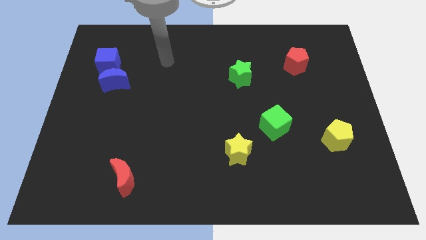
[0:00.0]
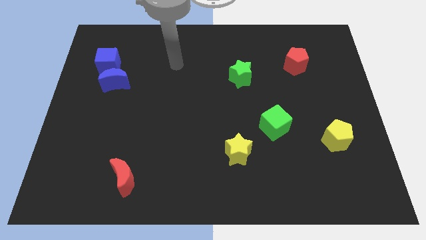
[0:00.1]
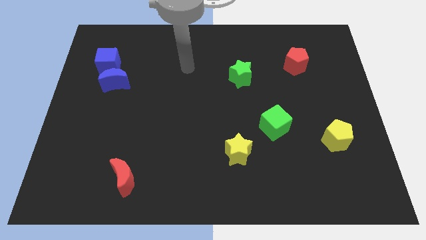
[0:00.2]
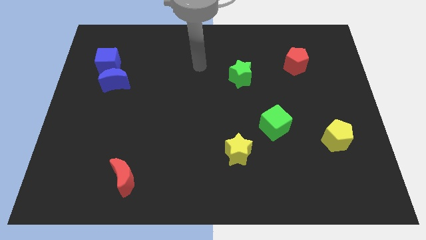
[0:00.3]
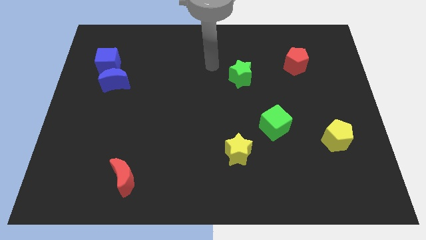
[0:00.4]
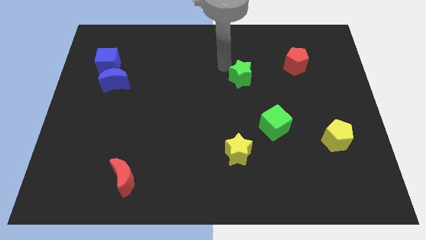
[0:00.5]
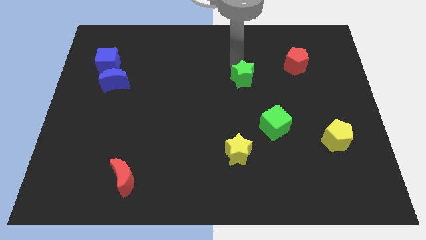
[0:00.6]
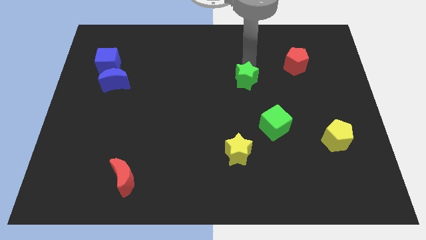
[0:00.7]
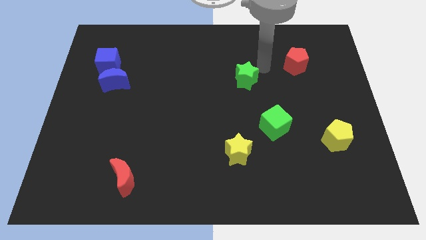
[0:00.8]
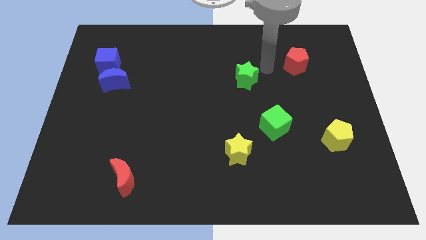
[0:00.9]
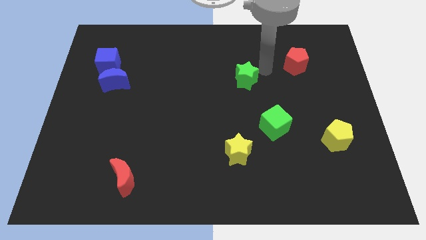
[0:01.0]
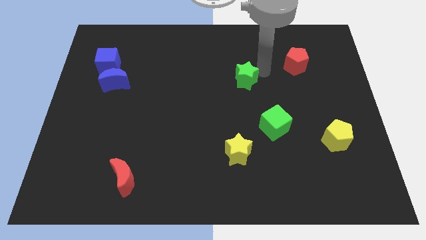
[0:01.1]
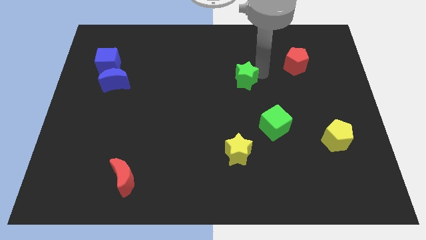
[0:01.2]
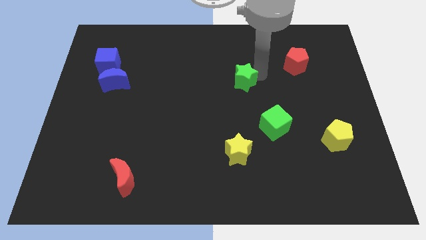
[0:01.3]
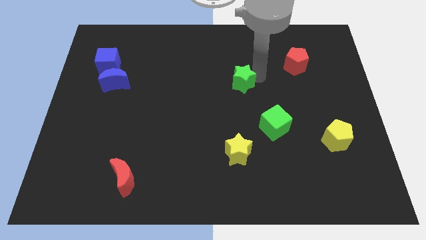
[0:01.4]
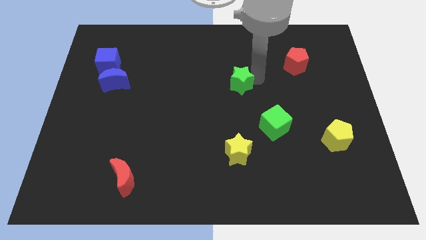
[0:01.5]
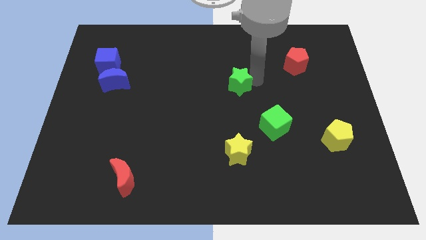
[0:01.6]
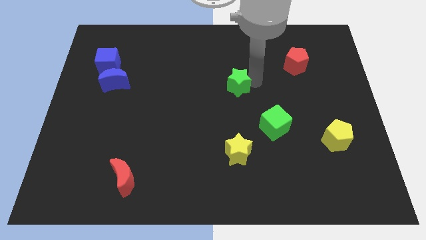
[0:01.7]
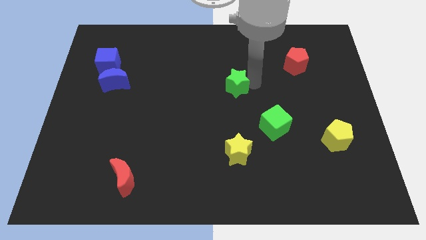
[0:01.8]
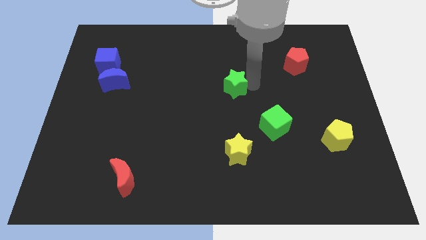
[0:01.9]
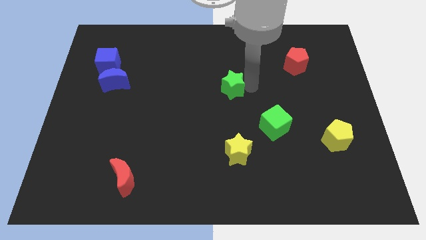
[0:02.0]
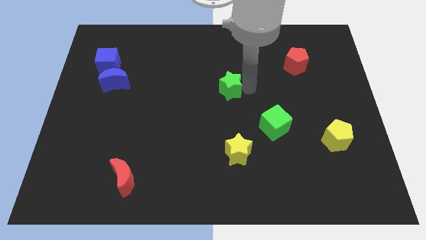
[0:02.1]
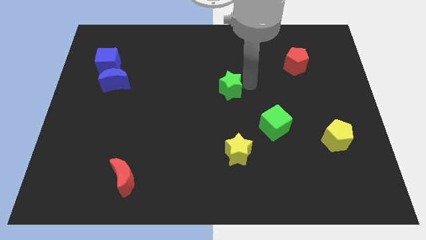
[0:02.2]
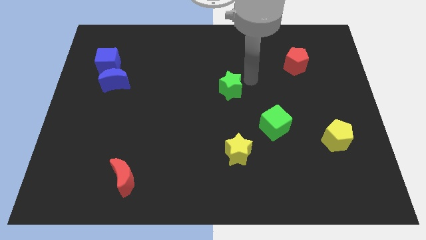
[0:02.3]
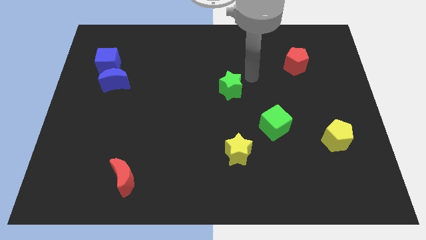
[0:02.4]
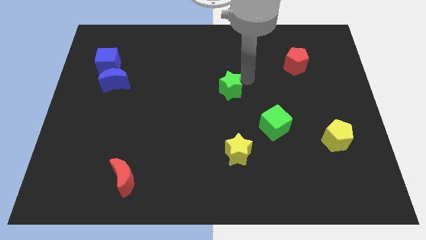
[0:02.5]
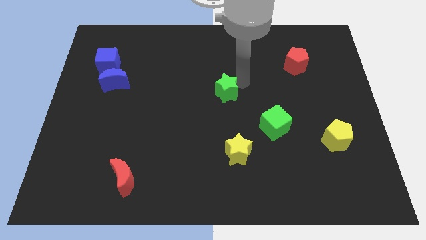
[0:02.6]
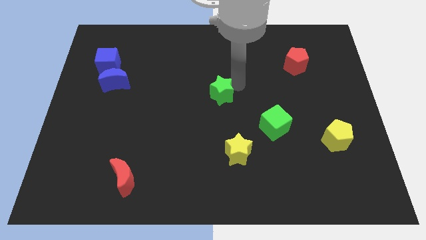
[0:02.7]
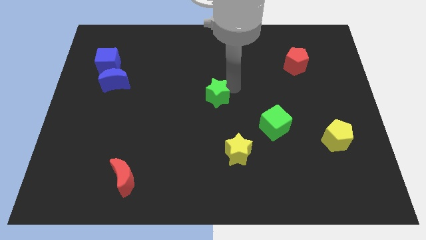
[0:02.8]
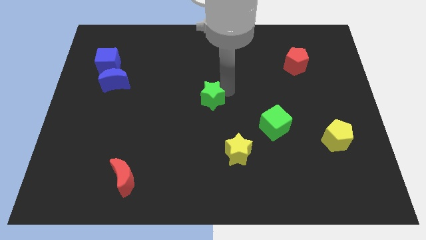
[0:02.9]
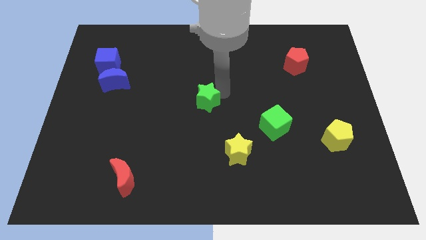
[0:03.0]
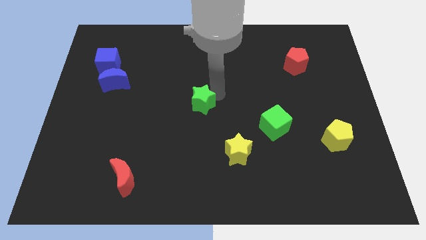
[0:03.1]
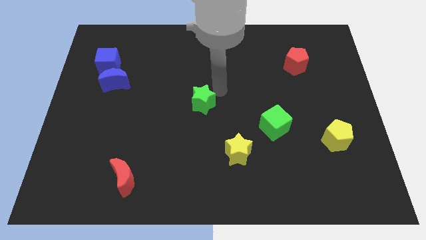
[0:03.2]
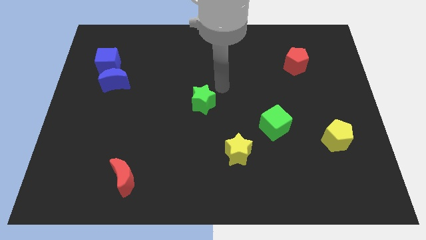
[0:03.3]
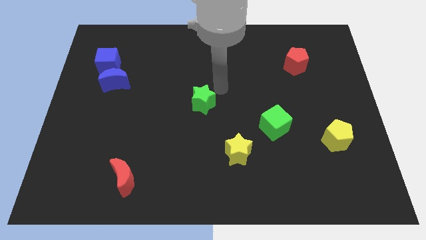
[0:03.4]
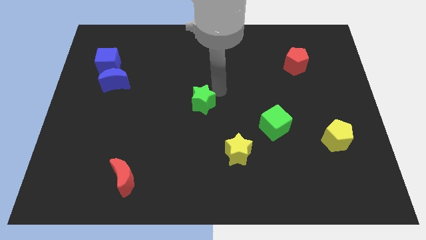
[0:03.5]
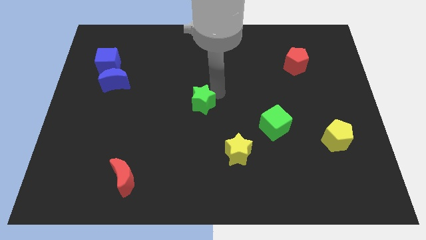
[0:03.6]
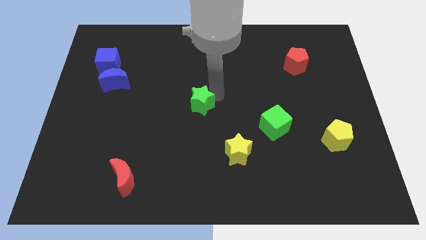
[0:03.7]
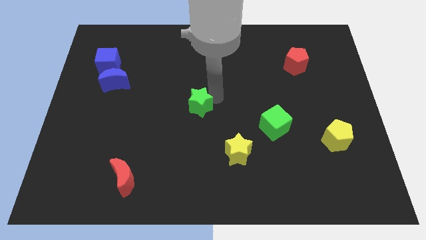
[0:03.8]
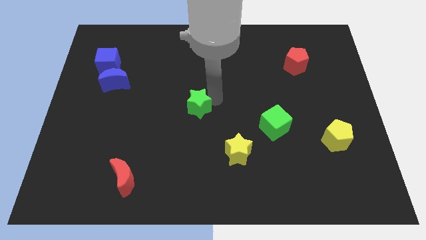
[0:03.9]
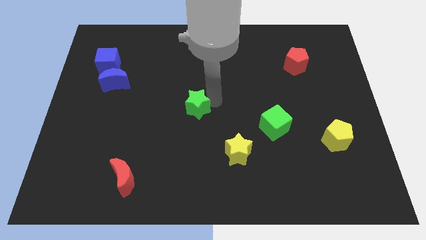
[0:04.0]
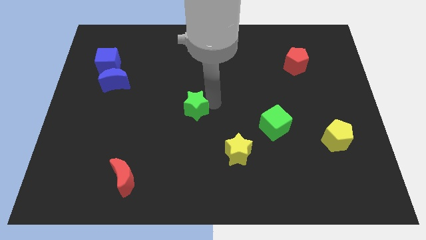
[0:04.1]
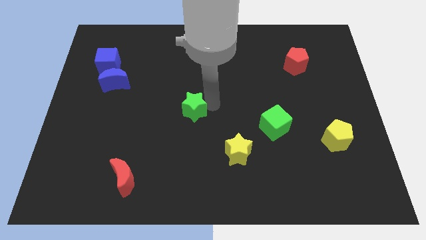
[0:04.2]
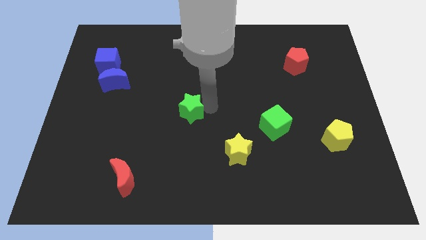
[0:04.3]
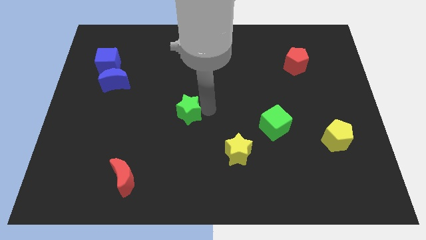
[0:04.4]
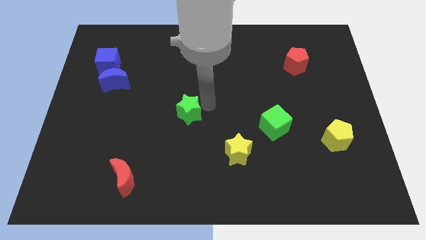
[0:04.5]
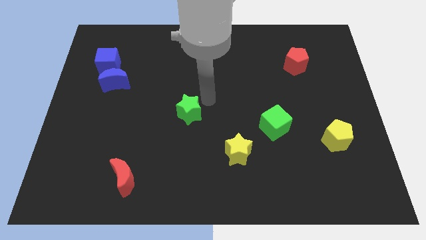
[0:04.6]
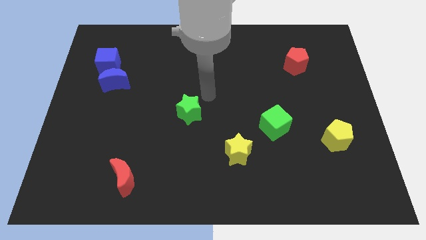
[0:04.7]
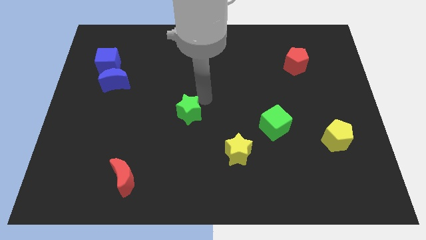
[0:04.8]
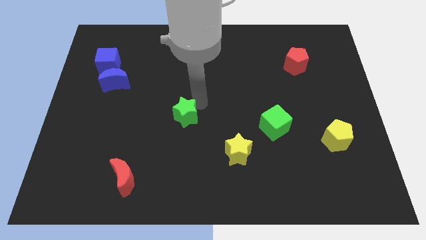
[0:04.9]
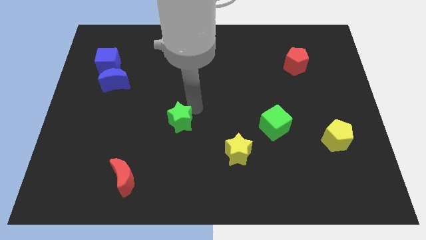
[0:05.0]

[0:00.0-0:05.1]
move the green star diagonally downwards and left

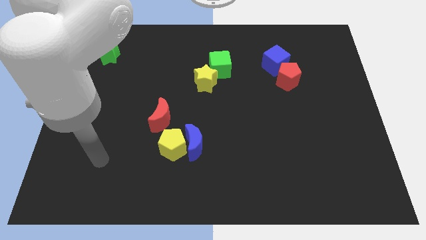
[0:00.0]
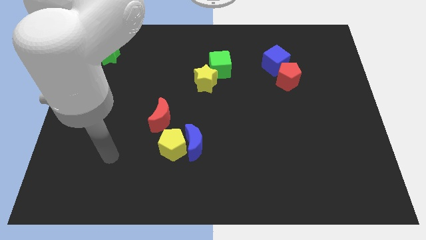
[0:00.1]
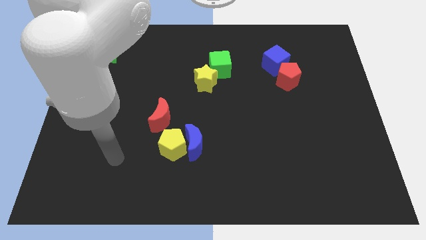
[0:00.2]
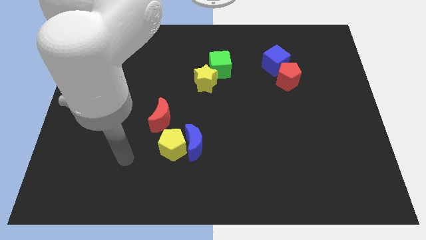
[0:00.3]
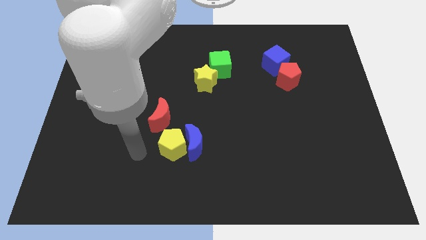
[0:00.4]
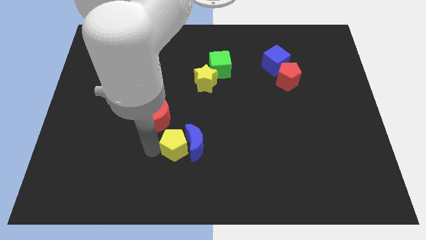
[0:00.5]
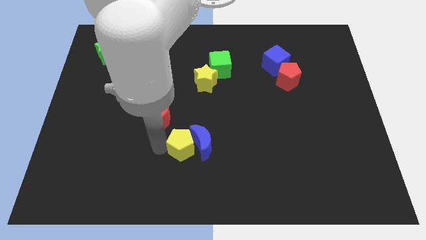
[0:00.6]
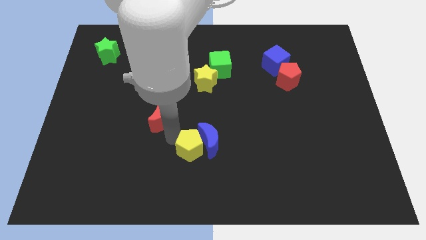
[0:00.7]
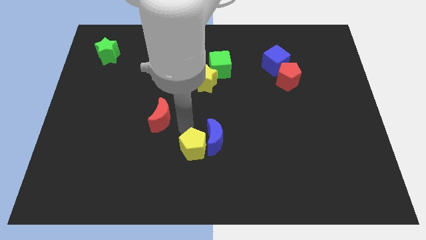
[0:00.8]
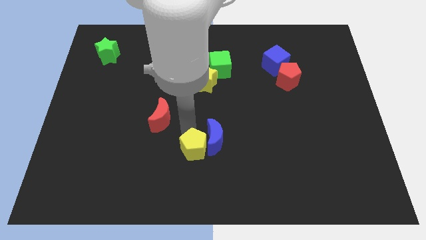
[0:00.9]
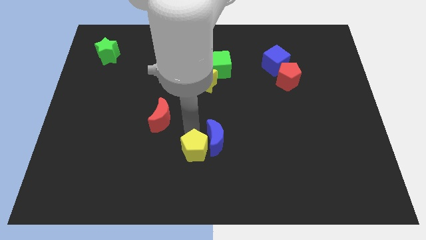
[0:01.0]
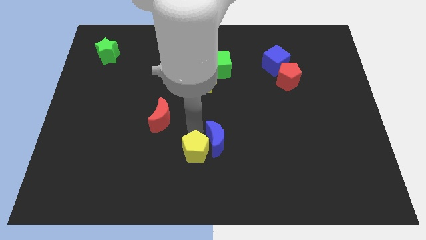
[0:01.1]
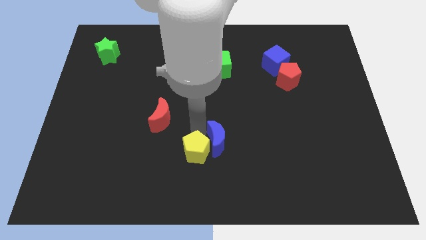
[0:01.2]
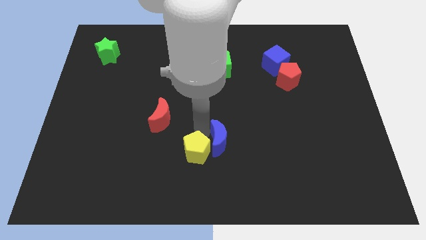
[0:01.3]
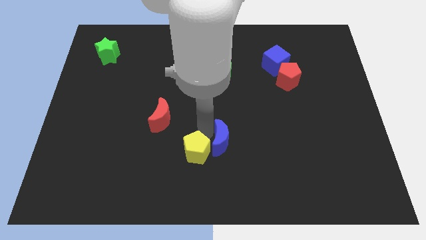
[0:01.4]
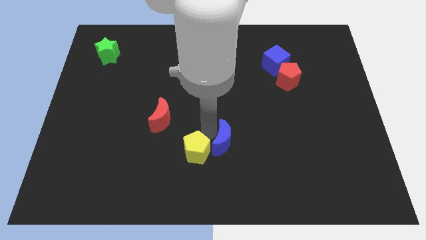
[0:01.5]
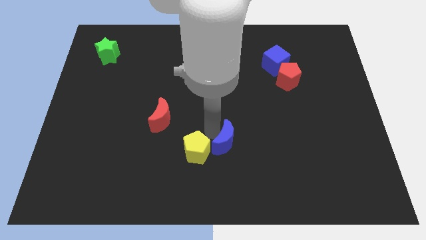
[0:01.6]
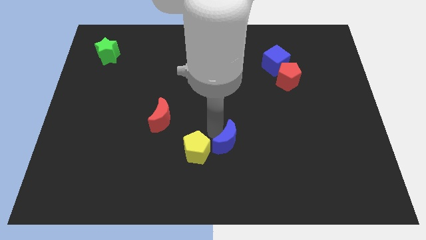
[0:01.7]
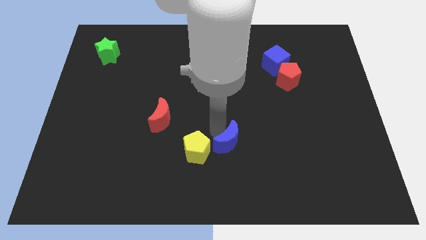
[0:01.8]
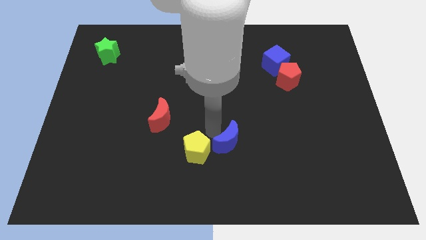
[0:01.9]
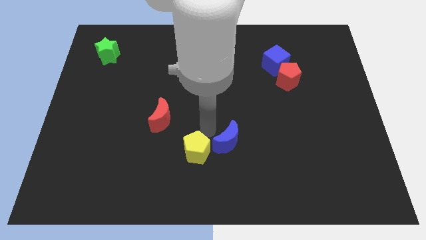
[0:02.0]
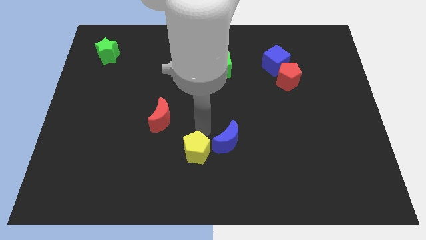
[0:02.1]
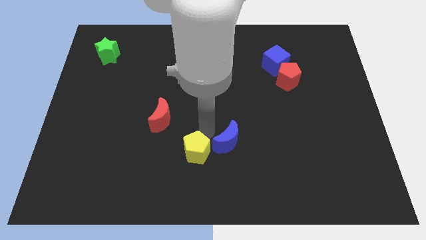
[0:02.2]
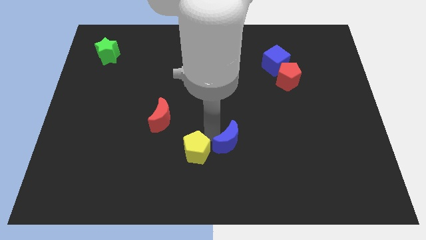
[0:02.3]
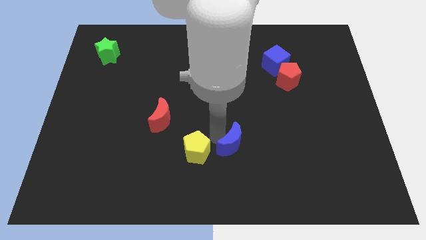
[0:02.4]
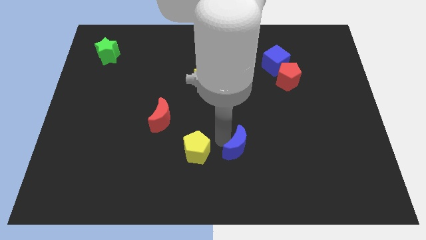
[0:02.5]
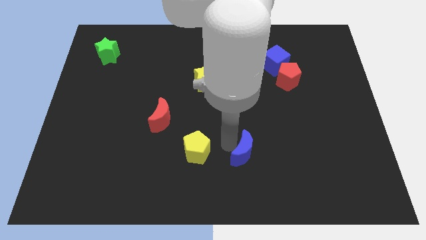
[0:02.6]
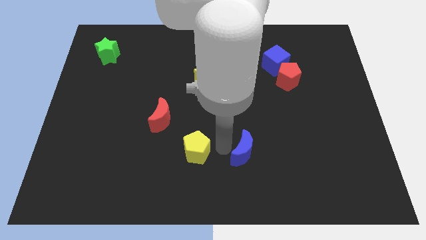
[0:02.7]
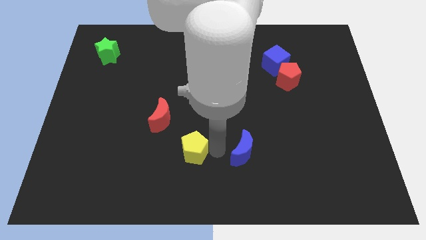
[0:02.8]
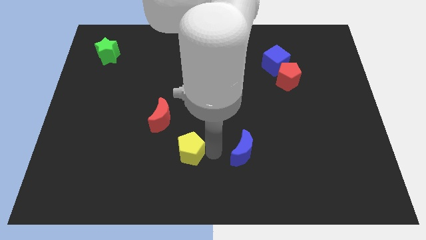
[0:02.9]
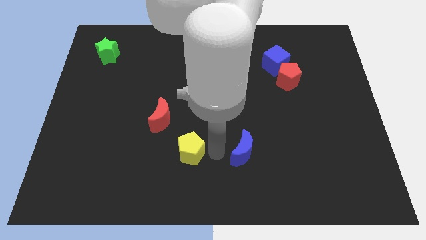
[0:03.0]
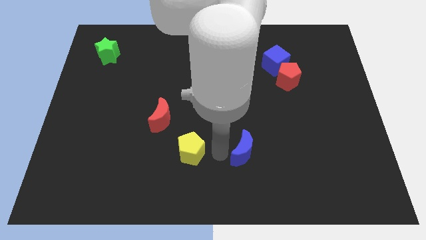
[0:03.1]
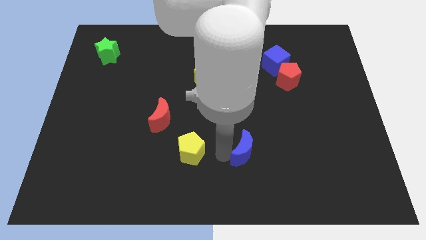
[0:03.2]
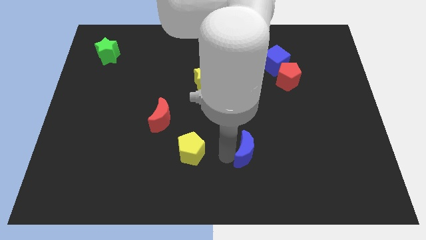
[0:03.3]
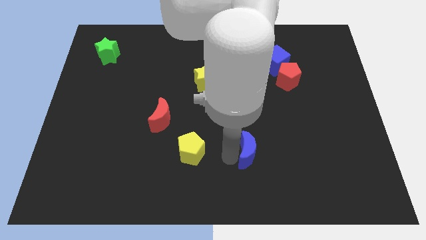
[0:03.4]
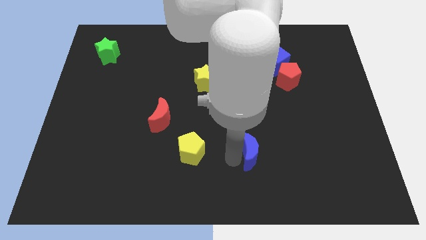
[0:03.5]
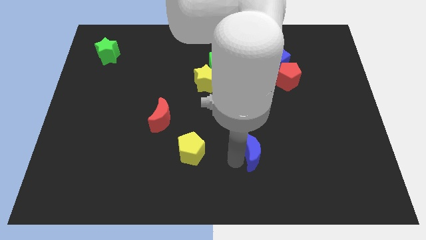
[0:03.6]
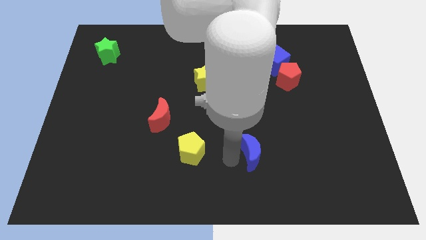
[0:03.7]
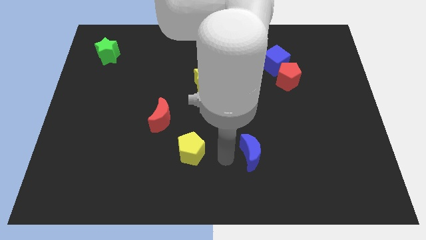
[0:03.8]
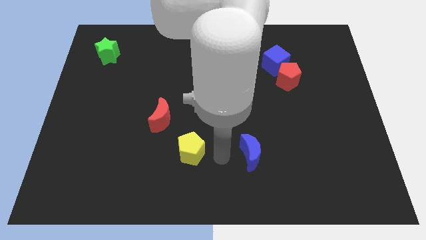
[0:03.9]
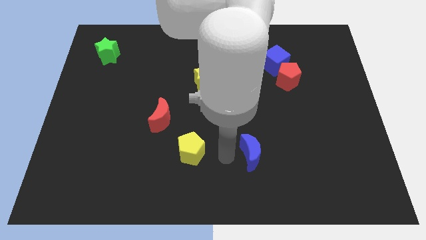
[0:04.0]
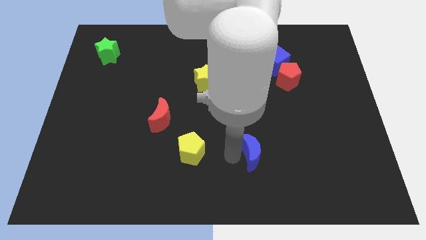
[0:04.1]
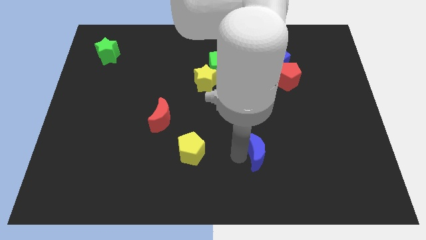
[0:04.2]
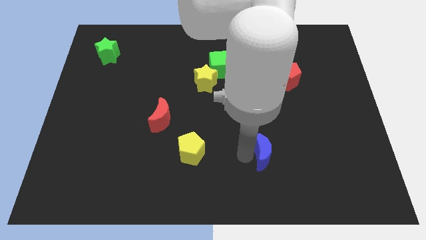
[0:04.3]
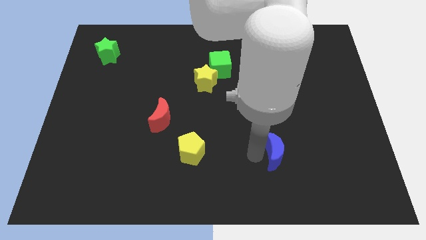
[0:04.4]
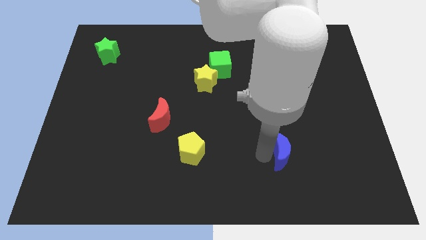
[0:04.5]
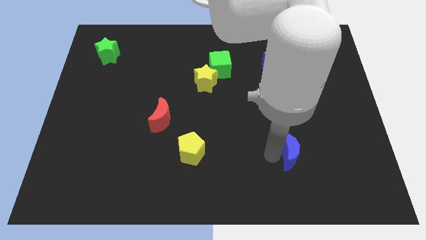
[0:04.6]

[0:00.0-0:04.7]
slide the blue moon right
